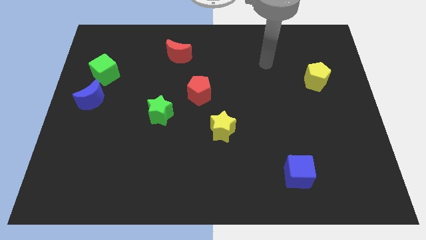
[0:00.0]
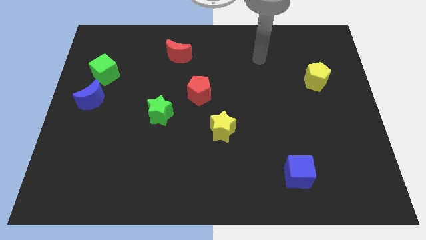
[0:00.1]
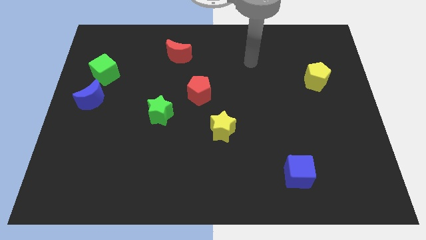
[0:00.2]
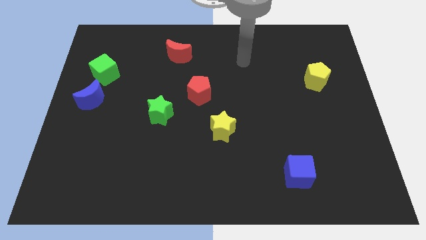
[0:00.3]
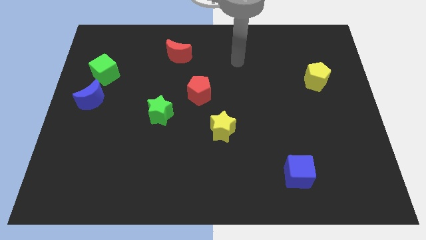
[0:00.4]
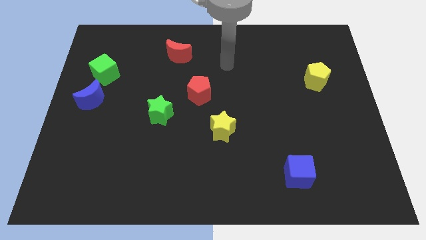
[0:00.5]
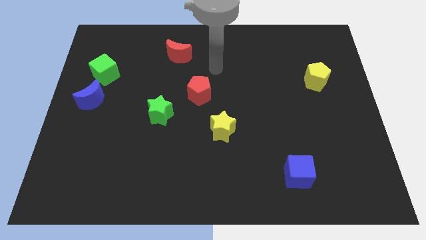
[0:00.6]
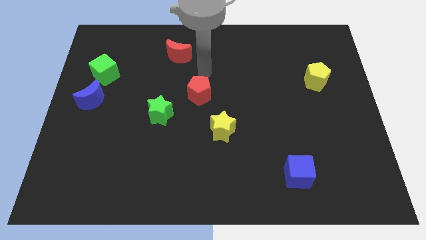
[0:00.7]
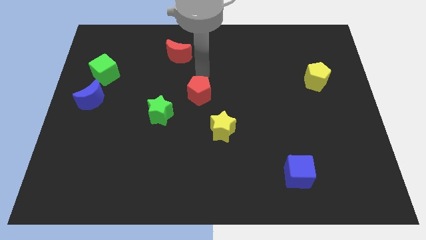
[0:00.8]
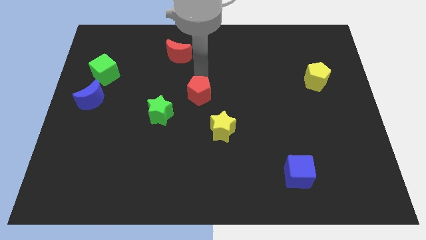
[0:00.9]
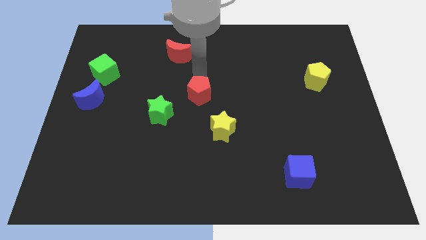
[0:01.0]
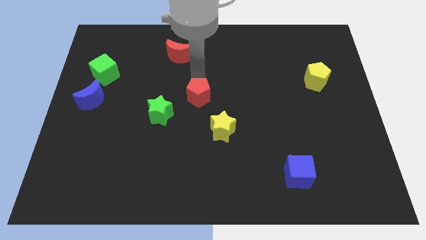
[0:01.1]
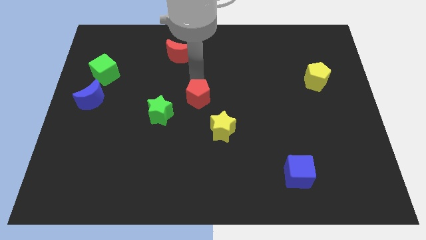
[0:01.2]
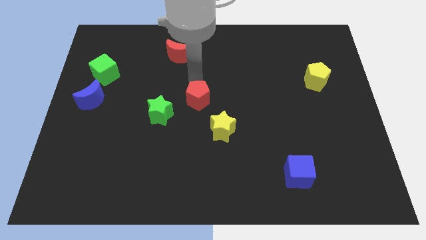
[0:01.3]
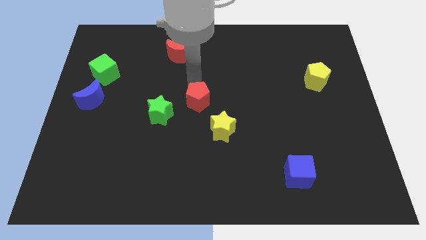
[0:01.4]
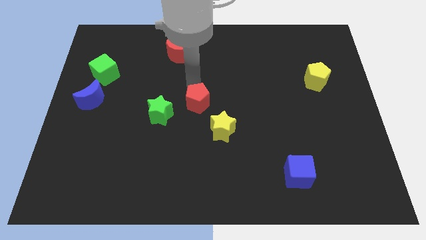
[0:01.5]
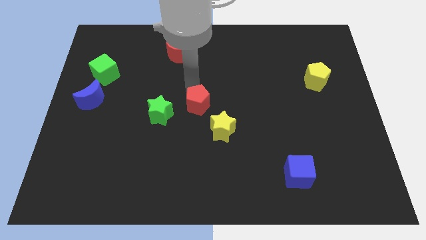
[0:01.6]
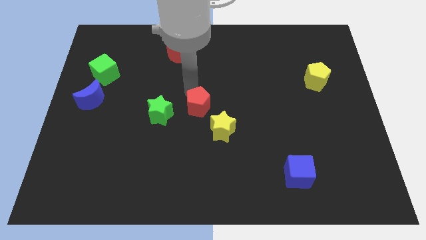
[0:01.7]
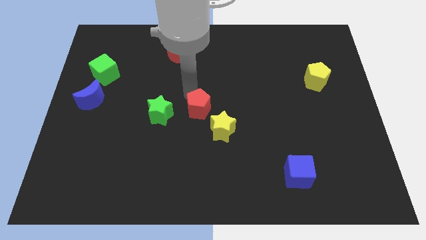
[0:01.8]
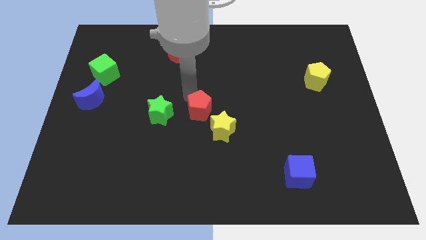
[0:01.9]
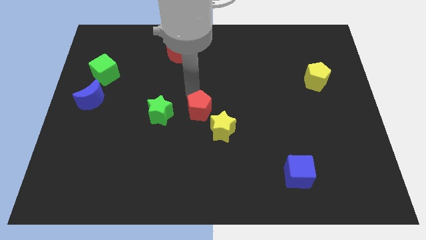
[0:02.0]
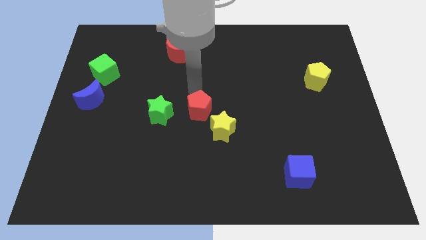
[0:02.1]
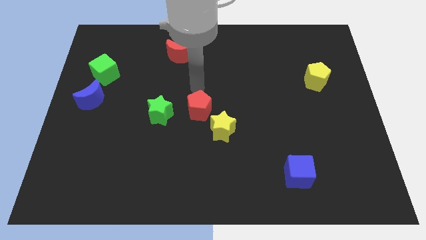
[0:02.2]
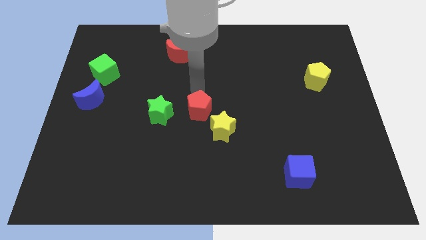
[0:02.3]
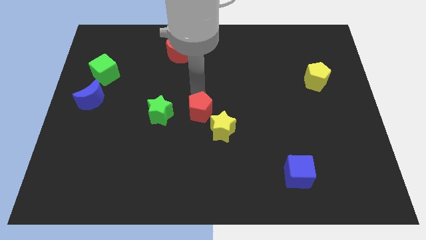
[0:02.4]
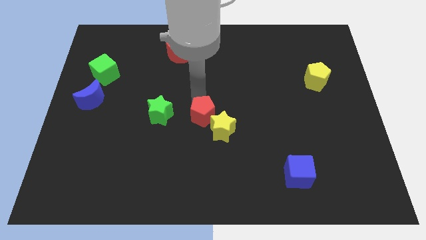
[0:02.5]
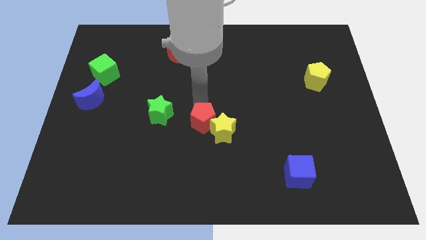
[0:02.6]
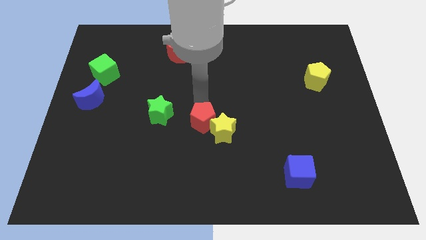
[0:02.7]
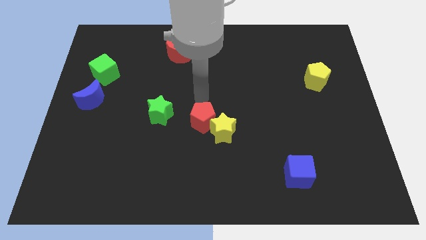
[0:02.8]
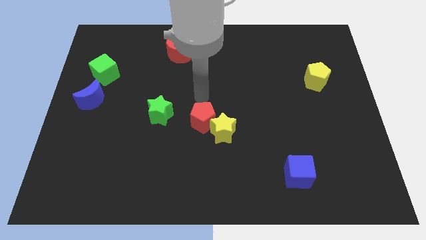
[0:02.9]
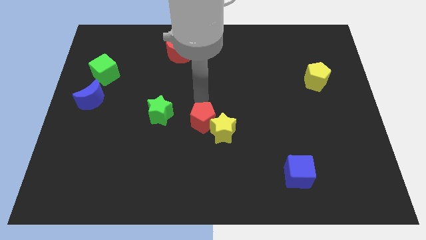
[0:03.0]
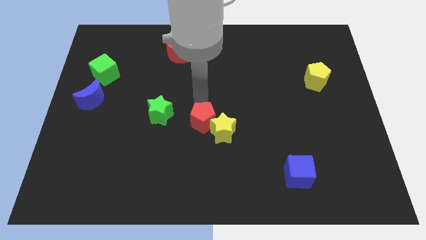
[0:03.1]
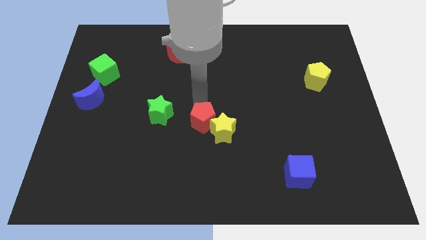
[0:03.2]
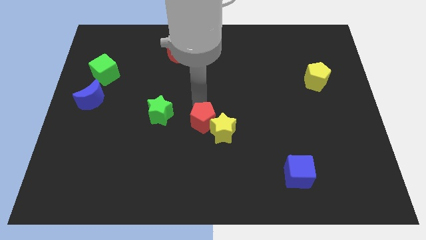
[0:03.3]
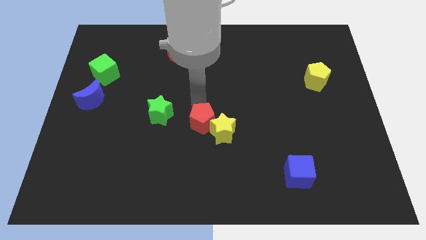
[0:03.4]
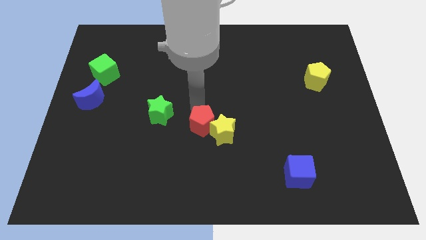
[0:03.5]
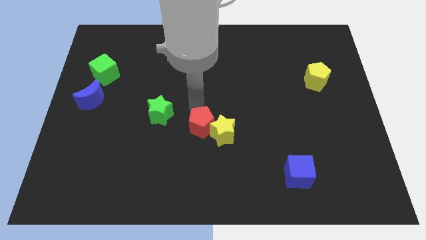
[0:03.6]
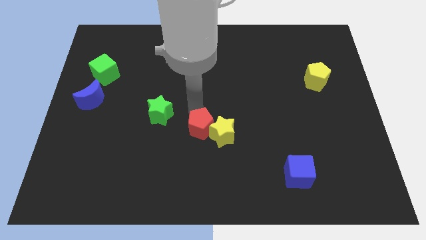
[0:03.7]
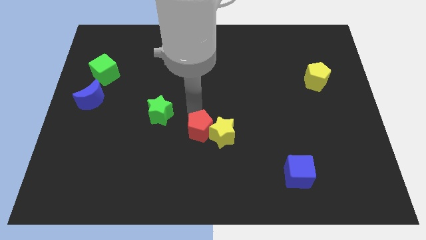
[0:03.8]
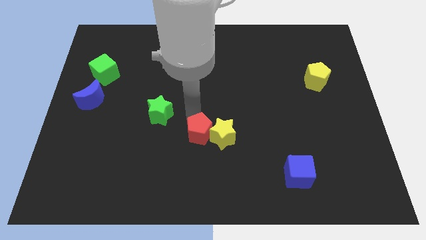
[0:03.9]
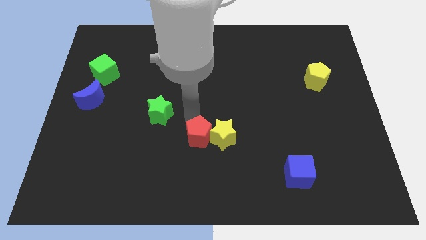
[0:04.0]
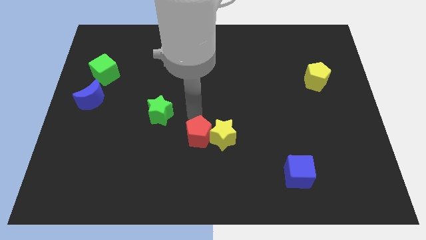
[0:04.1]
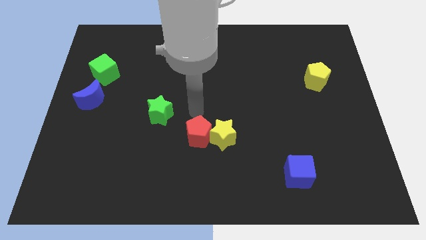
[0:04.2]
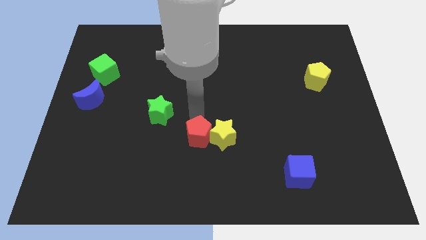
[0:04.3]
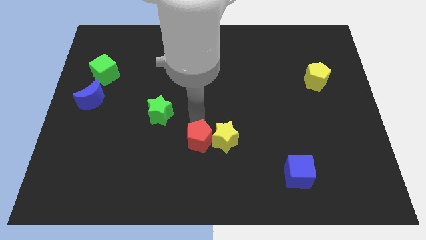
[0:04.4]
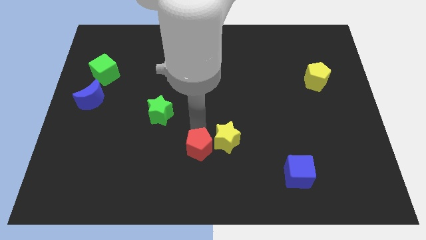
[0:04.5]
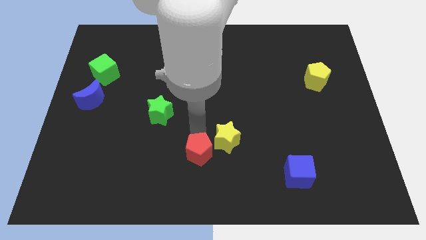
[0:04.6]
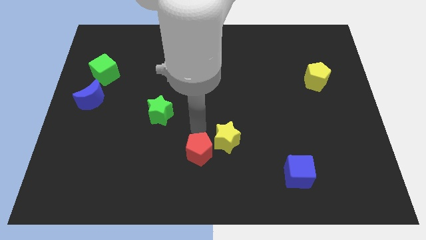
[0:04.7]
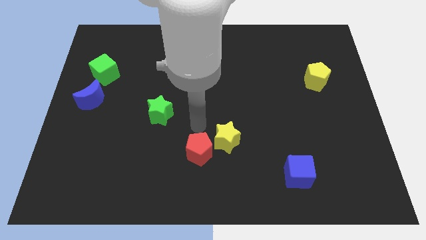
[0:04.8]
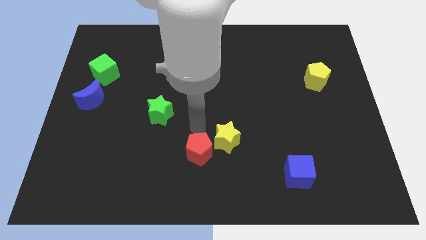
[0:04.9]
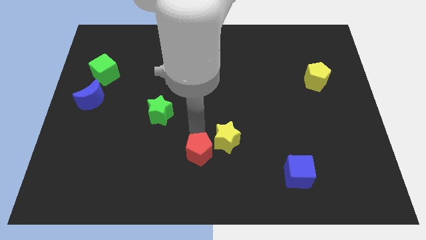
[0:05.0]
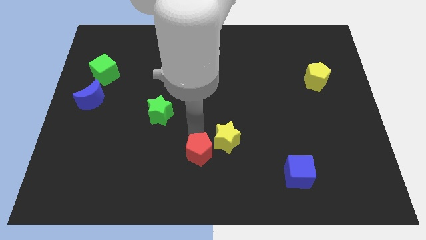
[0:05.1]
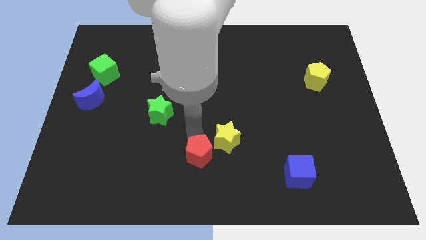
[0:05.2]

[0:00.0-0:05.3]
push the red pentagon to the bottom

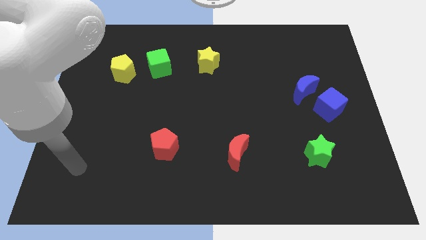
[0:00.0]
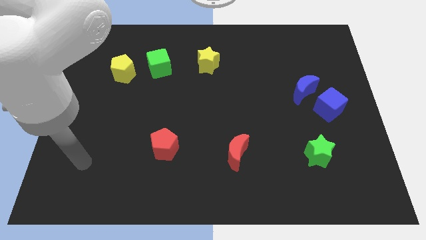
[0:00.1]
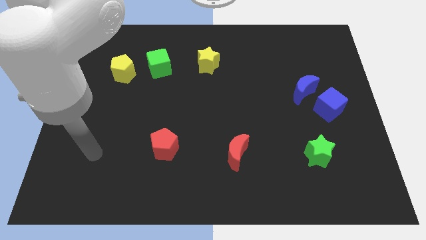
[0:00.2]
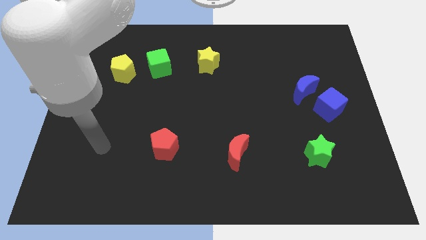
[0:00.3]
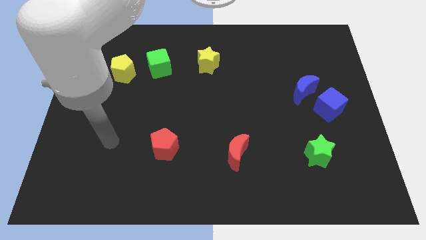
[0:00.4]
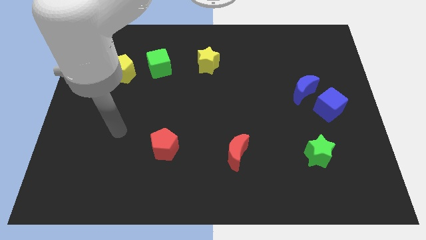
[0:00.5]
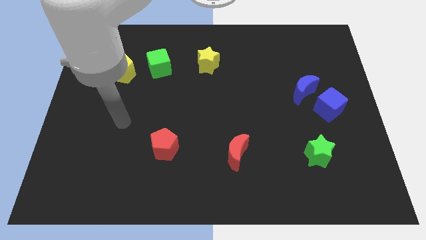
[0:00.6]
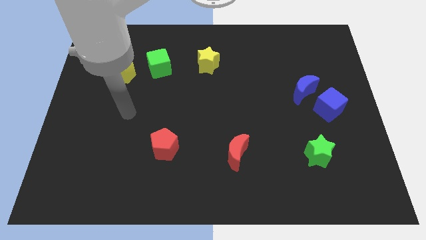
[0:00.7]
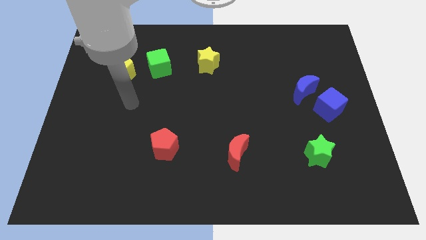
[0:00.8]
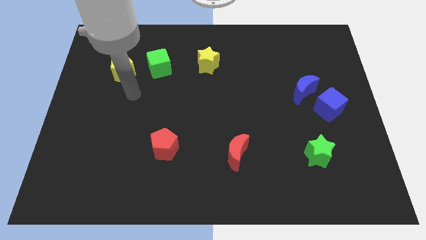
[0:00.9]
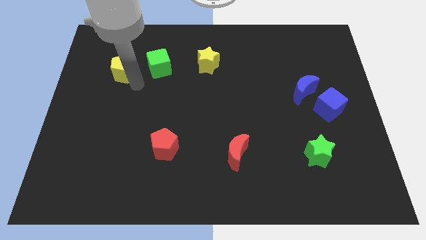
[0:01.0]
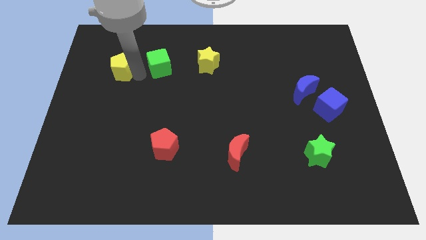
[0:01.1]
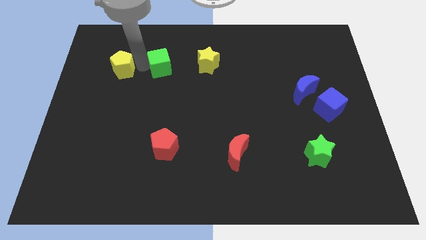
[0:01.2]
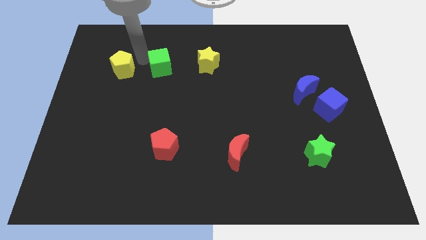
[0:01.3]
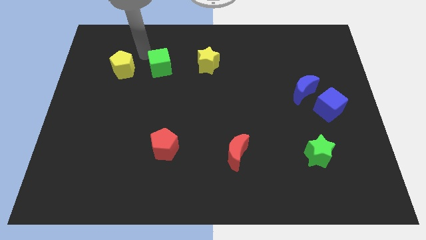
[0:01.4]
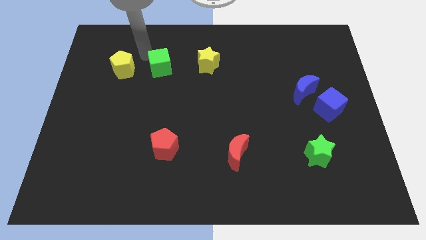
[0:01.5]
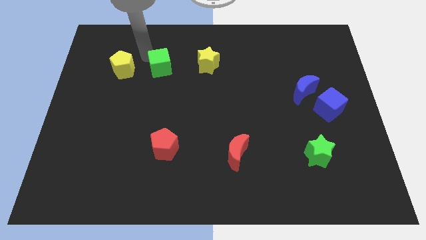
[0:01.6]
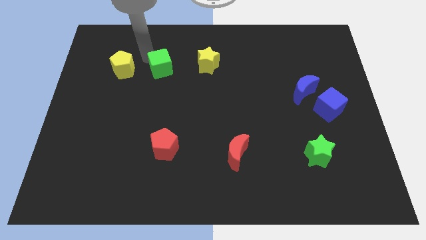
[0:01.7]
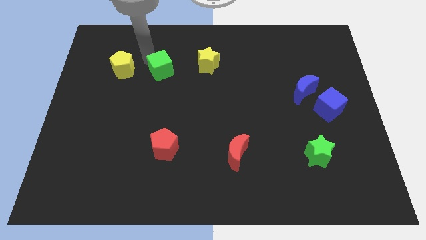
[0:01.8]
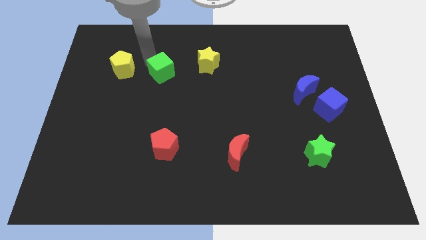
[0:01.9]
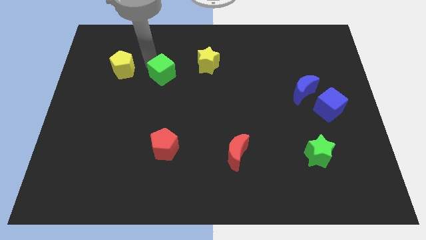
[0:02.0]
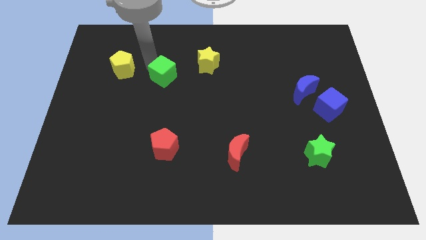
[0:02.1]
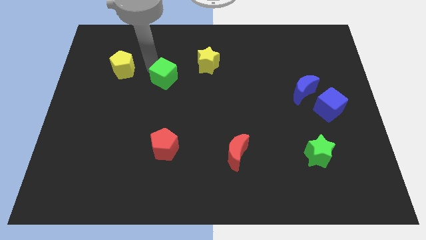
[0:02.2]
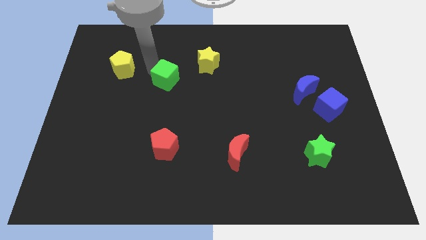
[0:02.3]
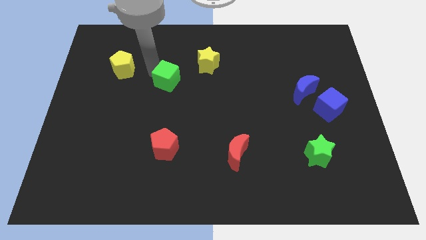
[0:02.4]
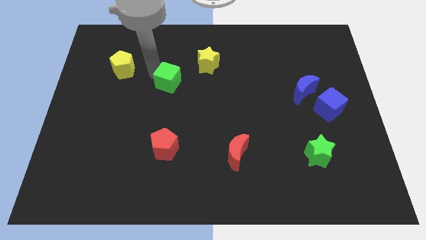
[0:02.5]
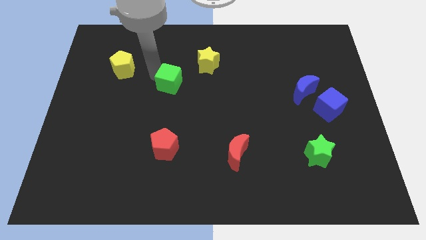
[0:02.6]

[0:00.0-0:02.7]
move the green cube to the center
